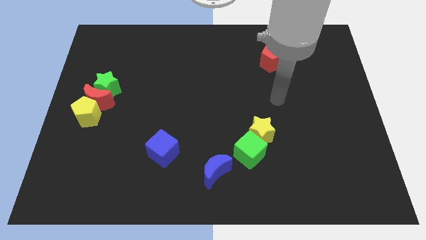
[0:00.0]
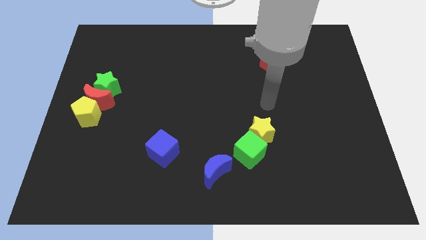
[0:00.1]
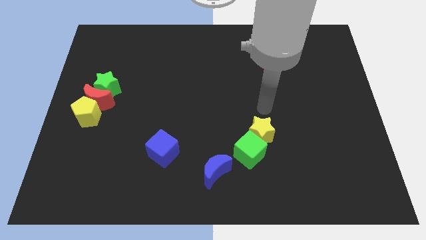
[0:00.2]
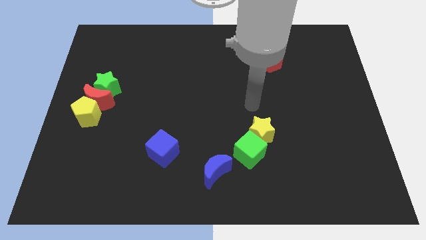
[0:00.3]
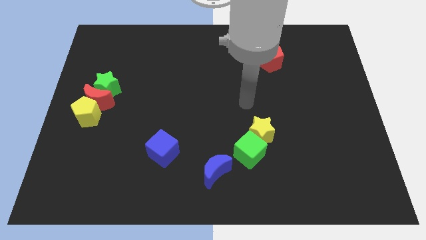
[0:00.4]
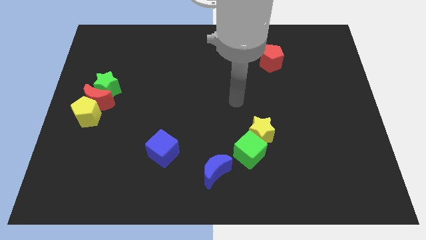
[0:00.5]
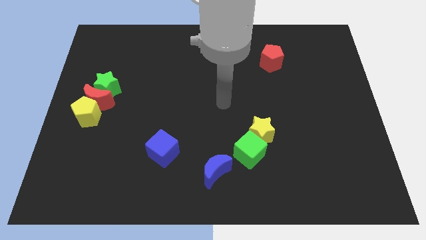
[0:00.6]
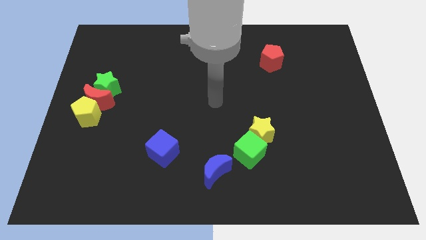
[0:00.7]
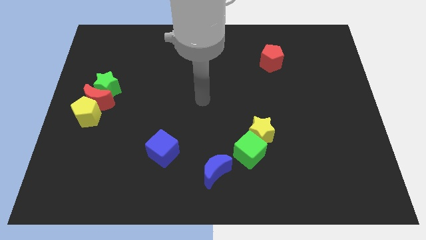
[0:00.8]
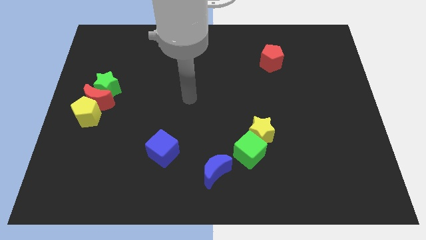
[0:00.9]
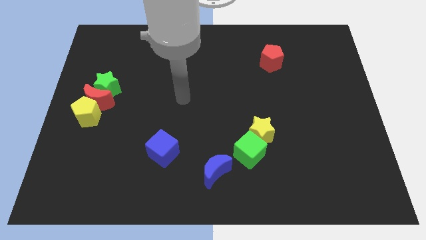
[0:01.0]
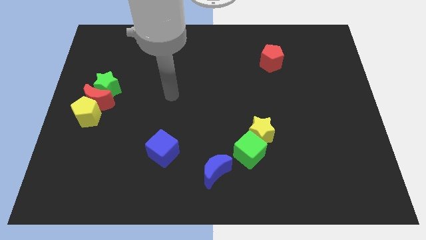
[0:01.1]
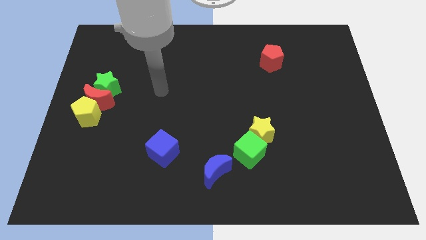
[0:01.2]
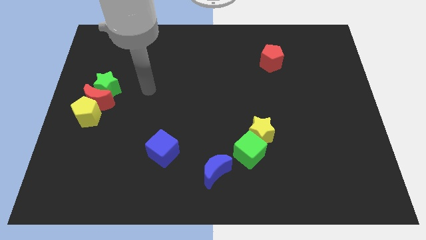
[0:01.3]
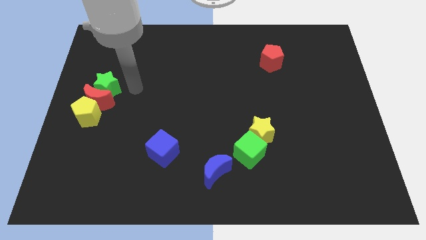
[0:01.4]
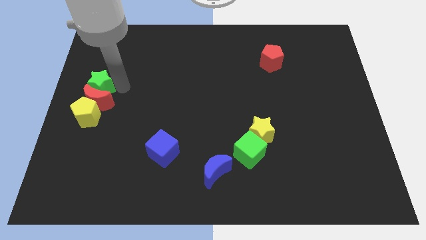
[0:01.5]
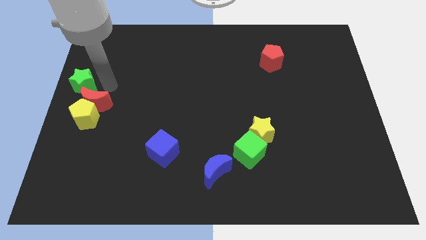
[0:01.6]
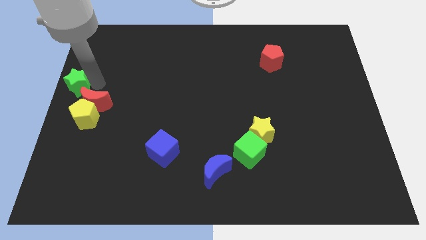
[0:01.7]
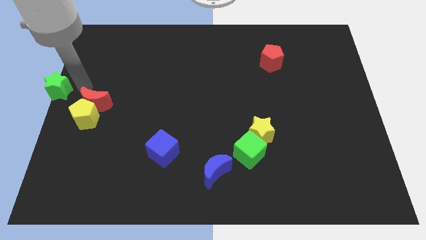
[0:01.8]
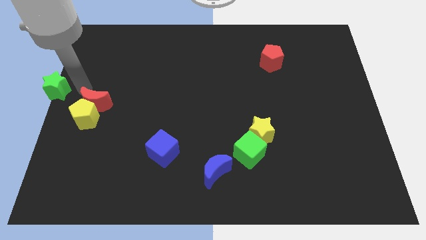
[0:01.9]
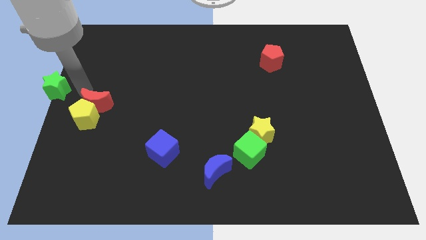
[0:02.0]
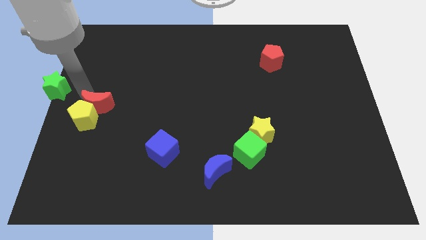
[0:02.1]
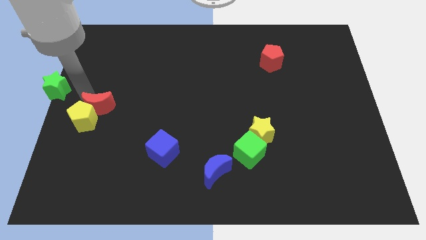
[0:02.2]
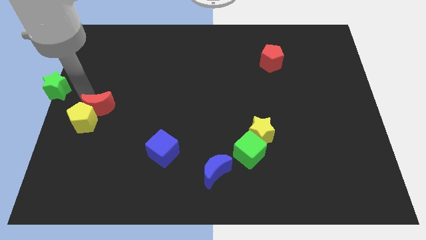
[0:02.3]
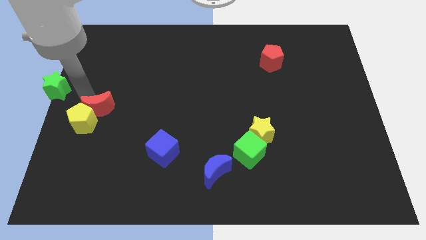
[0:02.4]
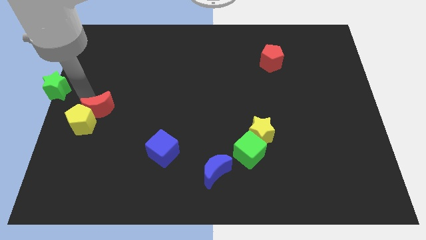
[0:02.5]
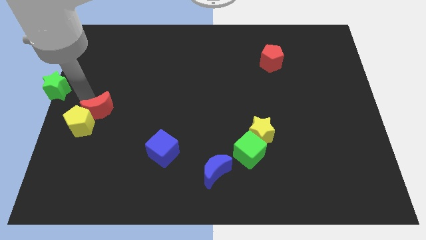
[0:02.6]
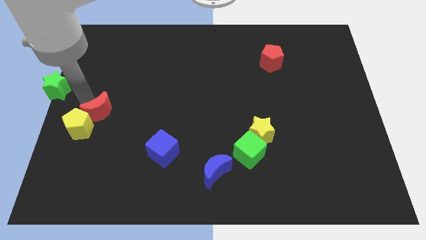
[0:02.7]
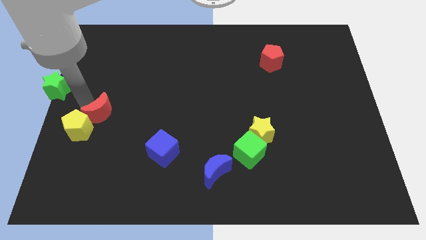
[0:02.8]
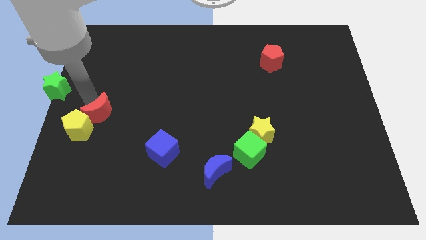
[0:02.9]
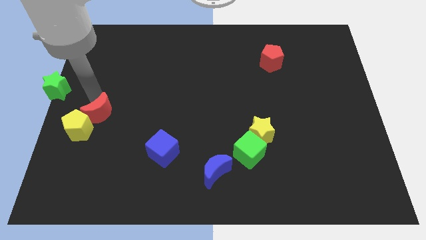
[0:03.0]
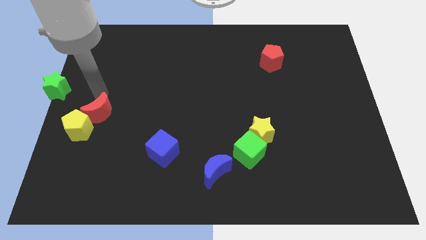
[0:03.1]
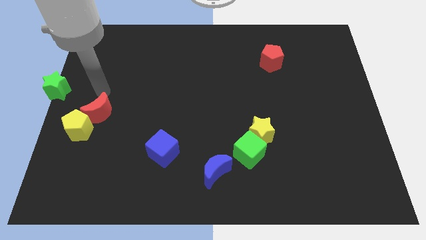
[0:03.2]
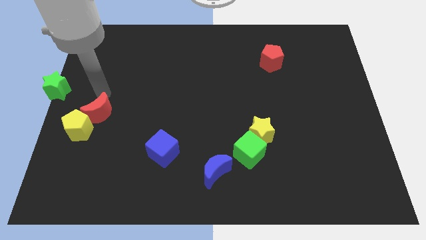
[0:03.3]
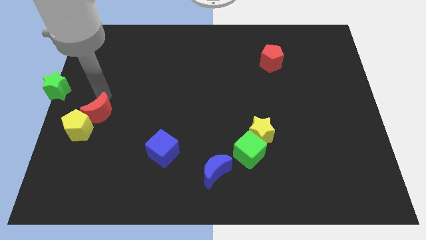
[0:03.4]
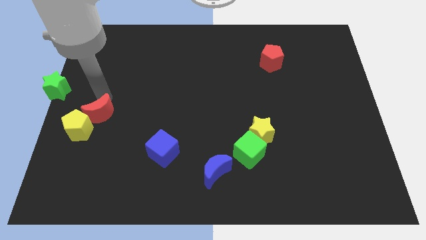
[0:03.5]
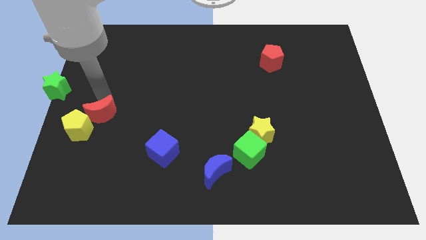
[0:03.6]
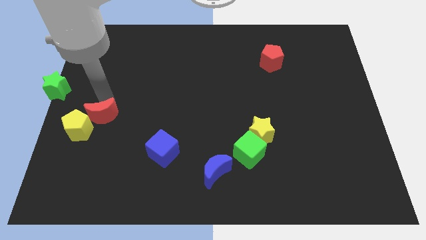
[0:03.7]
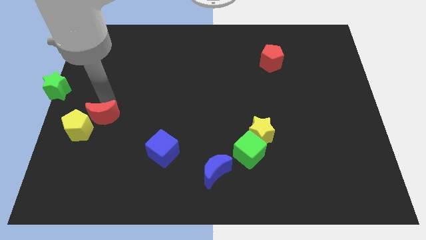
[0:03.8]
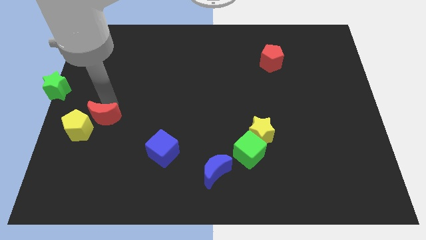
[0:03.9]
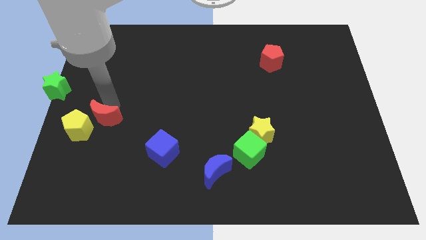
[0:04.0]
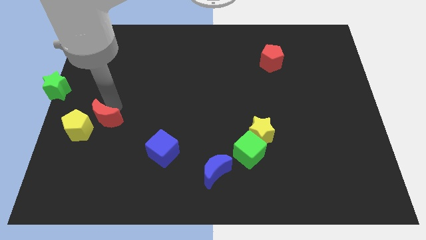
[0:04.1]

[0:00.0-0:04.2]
separate the red moon from the yellow pentagon and green star

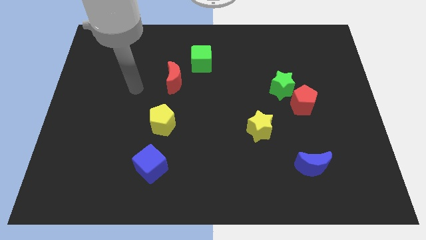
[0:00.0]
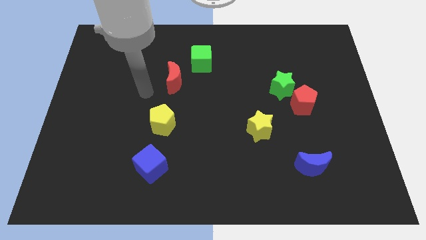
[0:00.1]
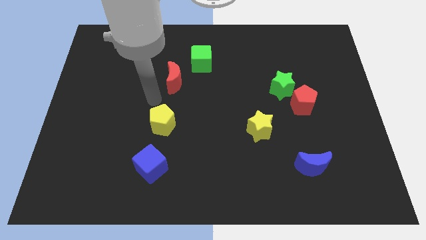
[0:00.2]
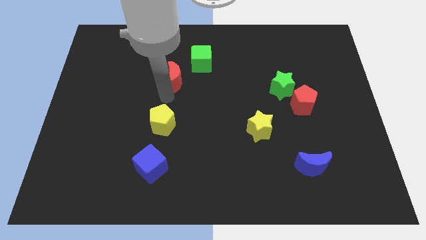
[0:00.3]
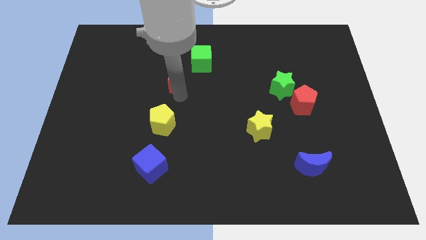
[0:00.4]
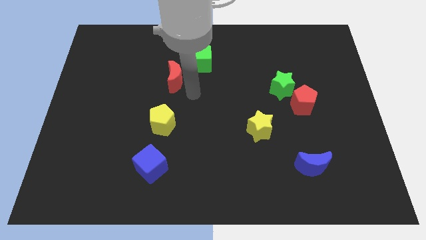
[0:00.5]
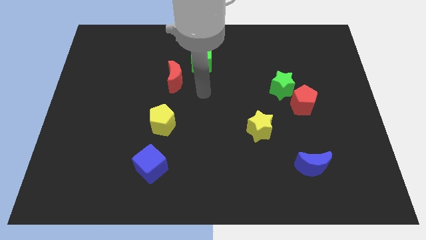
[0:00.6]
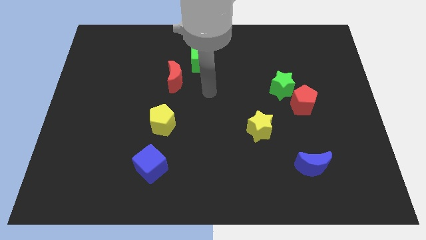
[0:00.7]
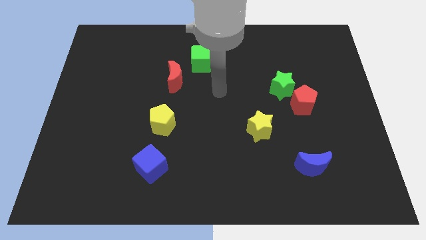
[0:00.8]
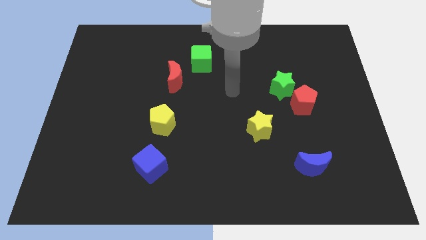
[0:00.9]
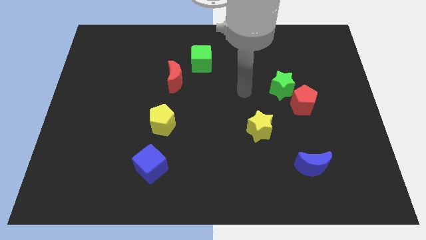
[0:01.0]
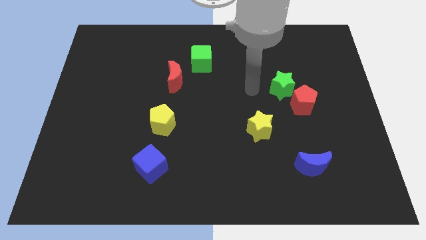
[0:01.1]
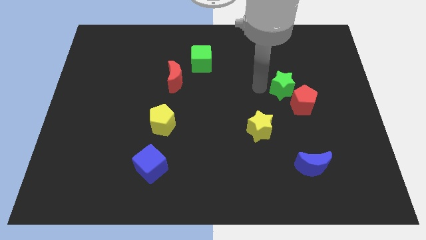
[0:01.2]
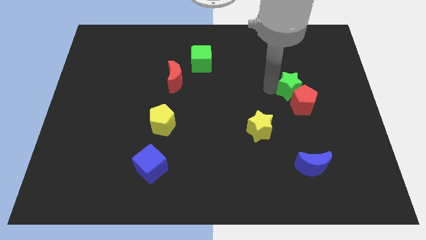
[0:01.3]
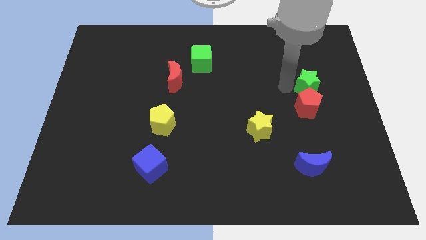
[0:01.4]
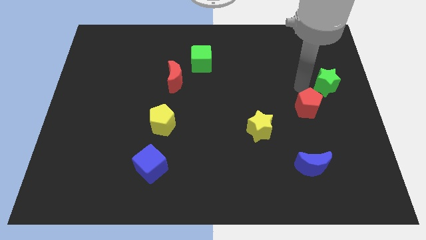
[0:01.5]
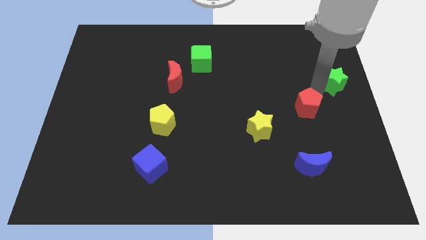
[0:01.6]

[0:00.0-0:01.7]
pull the red pentagon apart from the green star

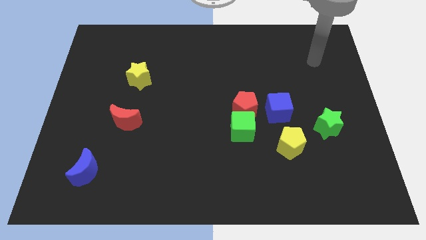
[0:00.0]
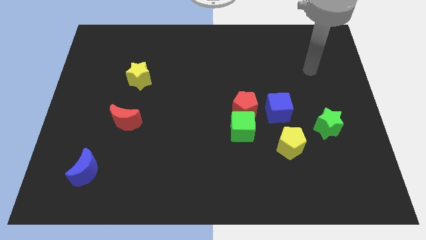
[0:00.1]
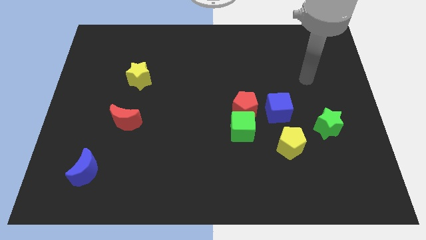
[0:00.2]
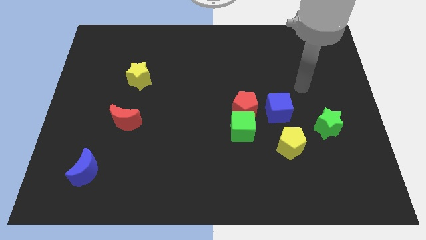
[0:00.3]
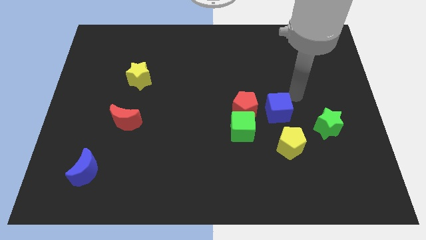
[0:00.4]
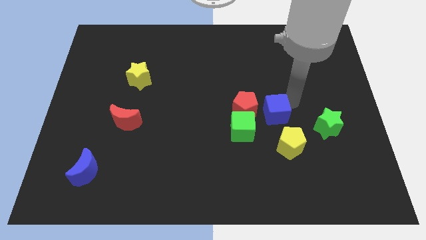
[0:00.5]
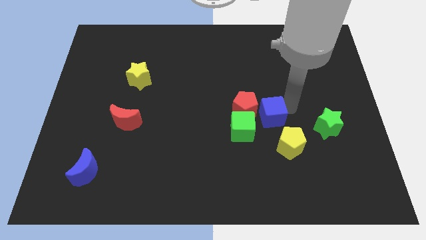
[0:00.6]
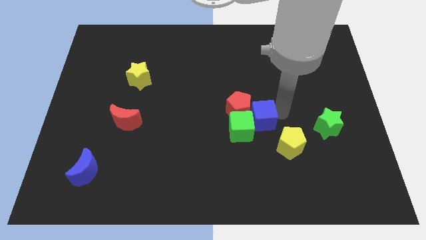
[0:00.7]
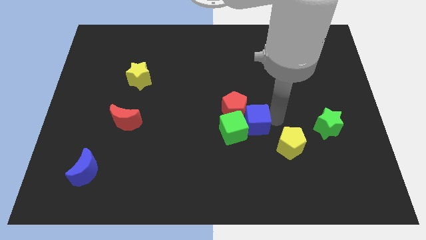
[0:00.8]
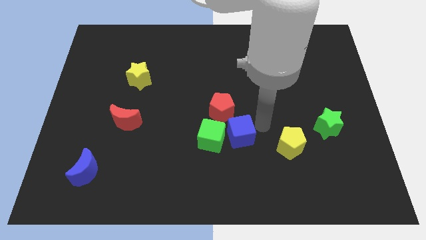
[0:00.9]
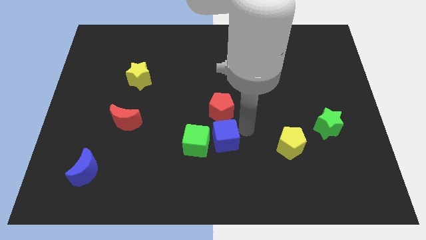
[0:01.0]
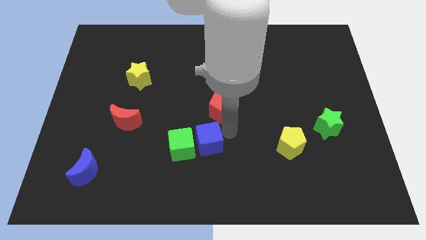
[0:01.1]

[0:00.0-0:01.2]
move the red pentagon away from the green cube and blue cube

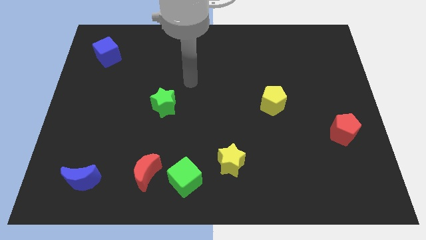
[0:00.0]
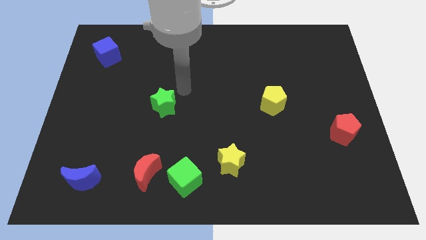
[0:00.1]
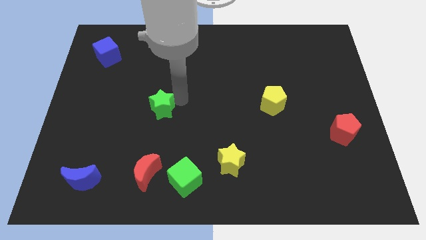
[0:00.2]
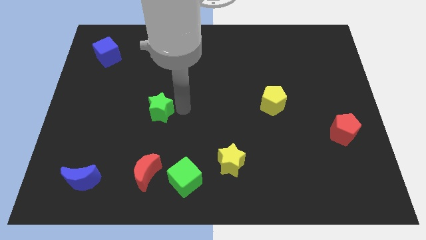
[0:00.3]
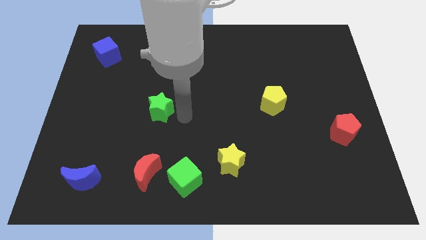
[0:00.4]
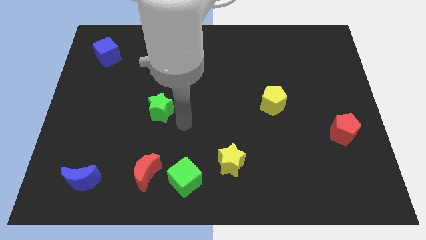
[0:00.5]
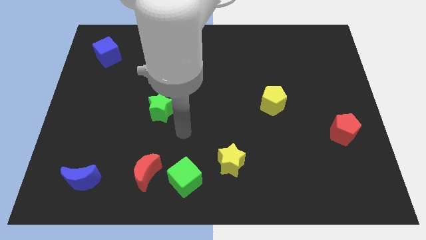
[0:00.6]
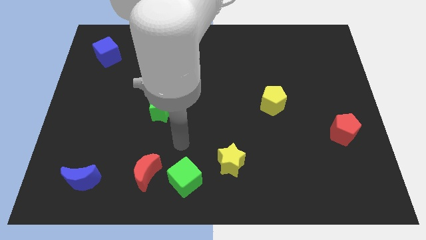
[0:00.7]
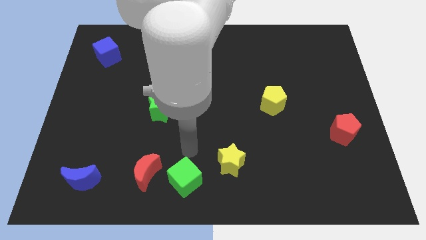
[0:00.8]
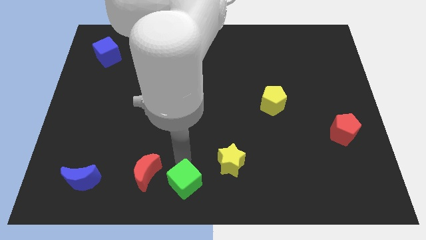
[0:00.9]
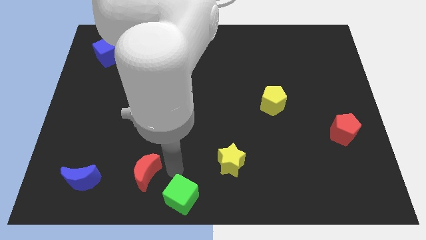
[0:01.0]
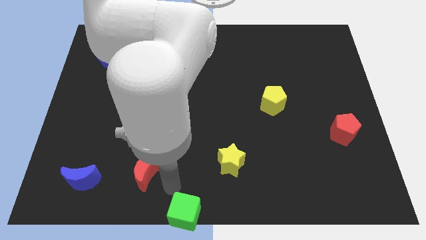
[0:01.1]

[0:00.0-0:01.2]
move the red moon away from the green cube

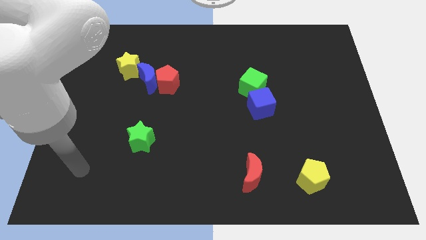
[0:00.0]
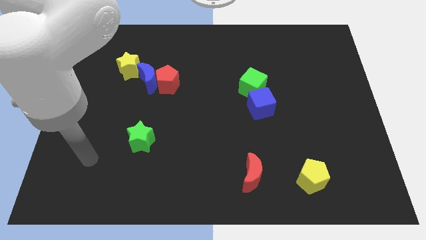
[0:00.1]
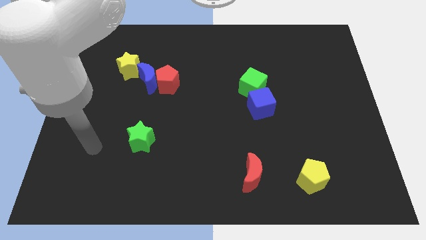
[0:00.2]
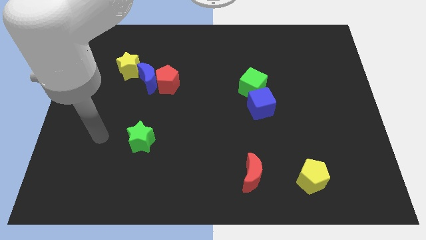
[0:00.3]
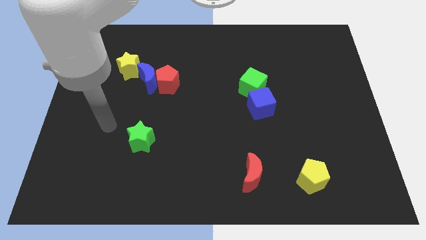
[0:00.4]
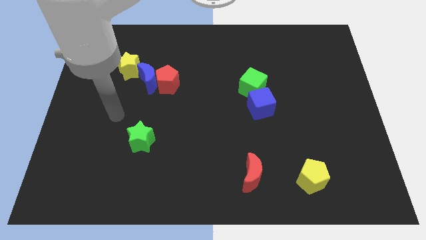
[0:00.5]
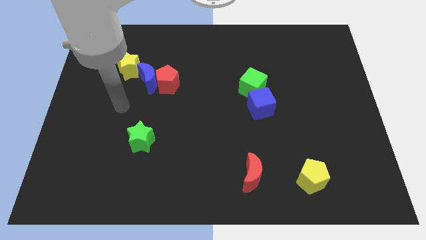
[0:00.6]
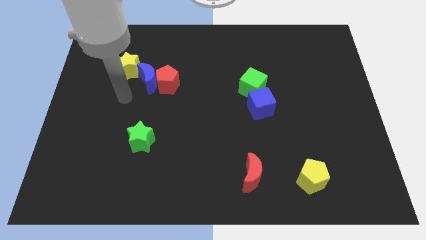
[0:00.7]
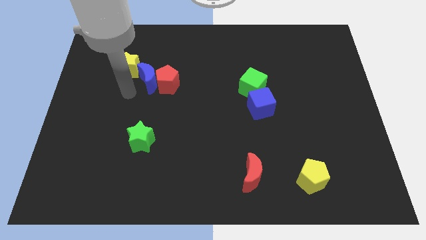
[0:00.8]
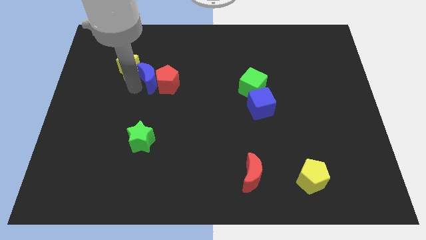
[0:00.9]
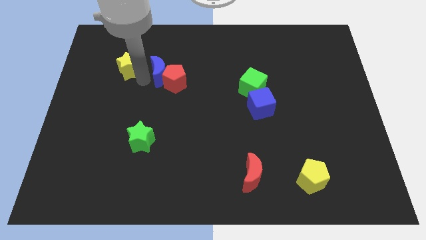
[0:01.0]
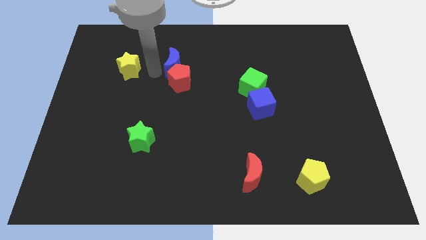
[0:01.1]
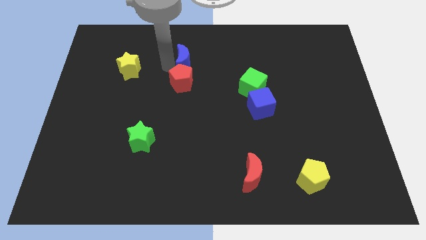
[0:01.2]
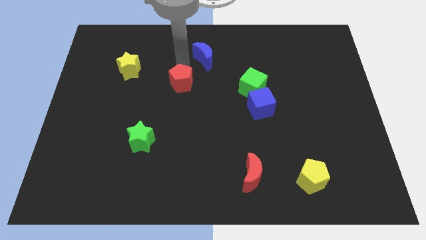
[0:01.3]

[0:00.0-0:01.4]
move the red pentagon away from the blue moon
